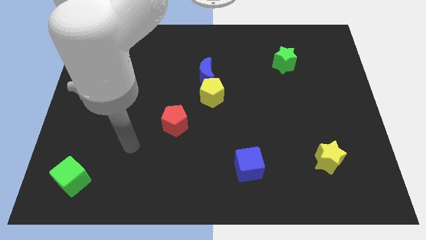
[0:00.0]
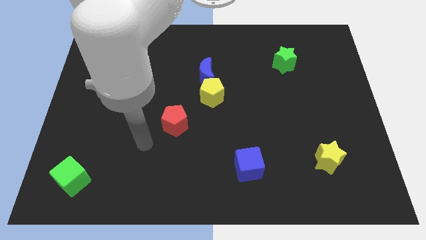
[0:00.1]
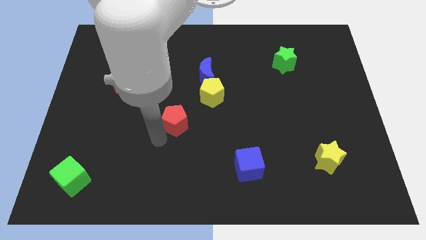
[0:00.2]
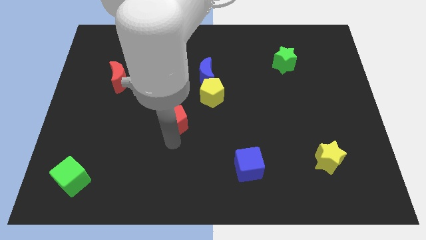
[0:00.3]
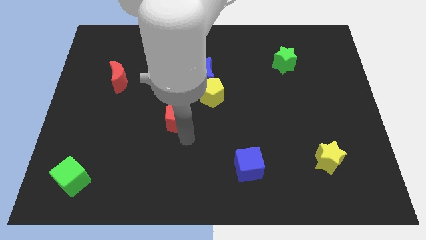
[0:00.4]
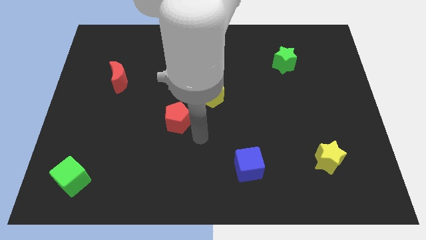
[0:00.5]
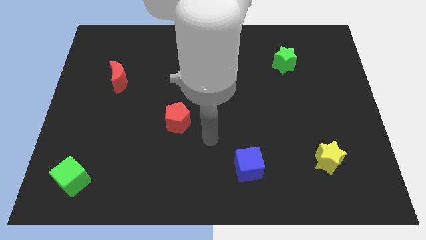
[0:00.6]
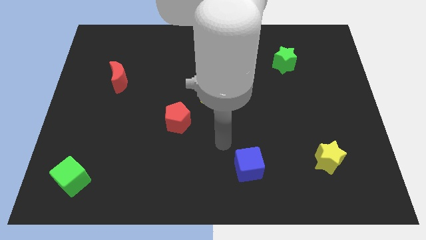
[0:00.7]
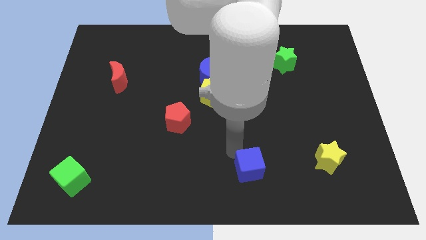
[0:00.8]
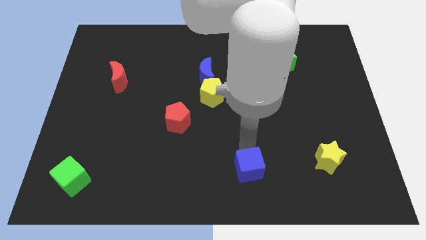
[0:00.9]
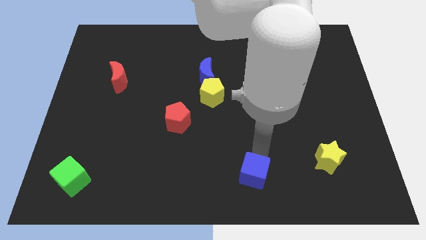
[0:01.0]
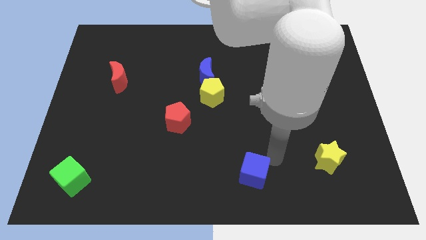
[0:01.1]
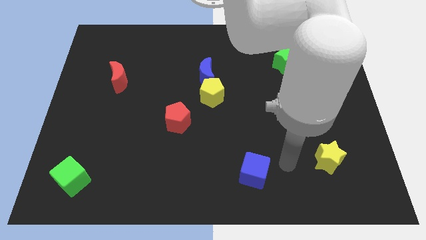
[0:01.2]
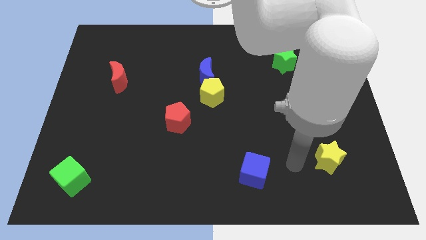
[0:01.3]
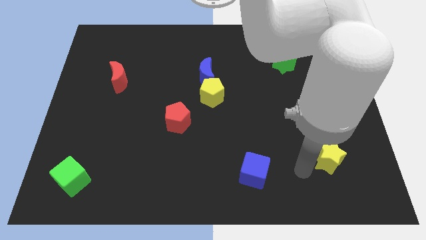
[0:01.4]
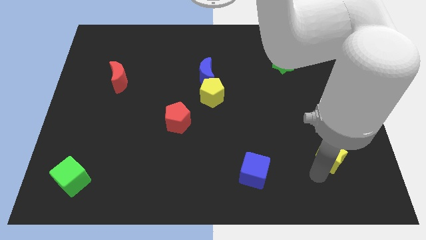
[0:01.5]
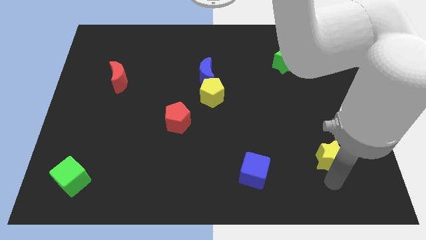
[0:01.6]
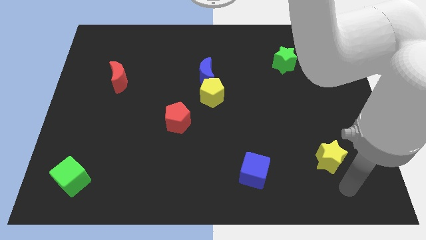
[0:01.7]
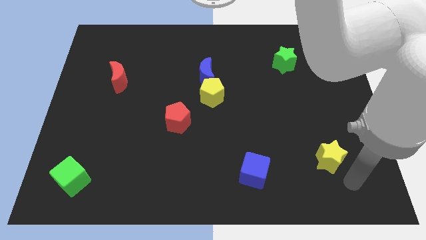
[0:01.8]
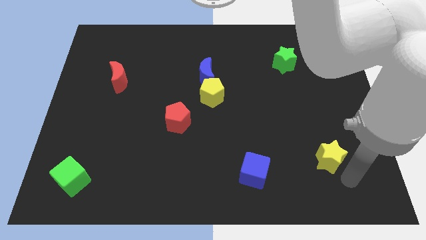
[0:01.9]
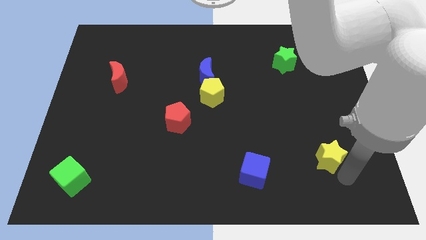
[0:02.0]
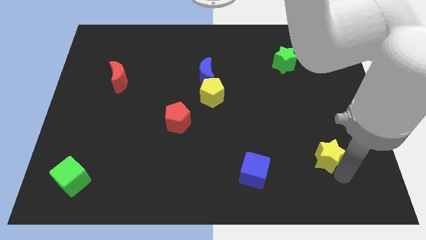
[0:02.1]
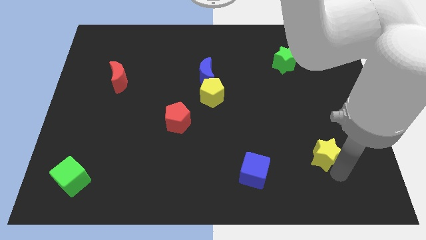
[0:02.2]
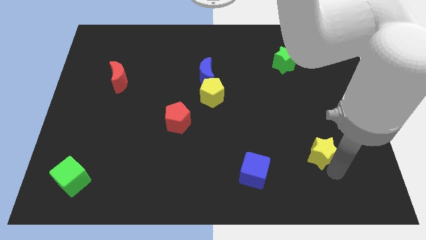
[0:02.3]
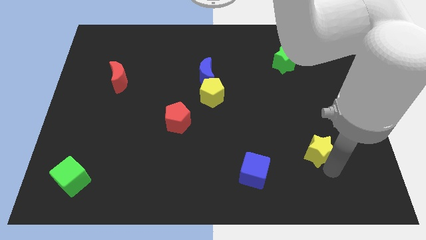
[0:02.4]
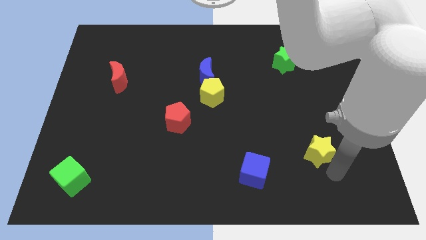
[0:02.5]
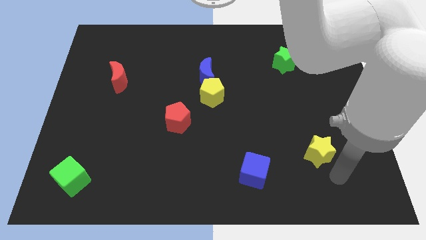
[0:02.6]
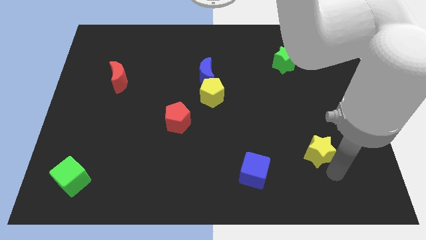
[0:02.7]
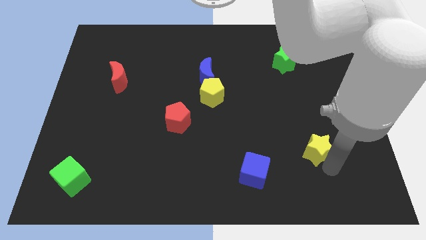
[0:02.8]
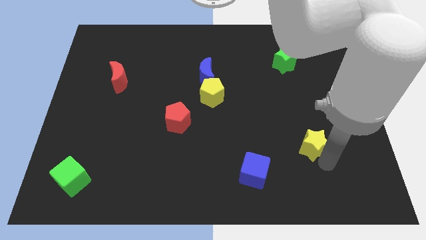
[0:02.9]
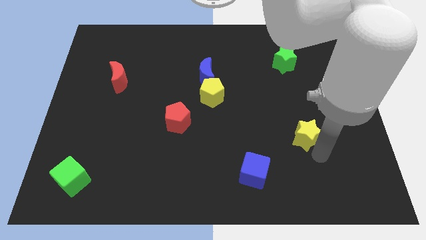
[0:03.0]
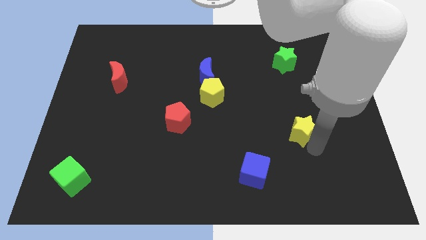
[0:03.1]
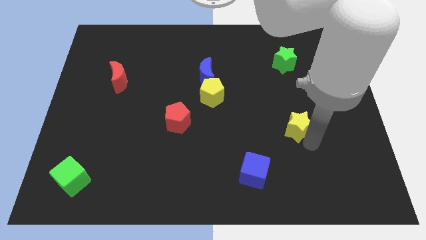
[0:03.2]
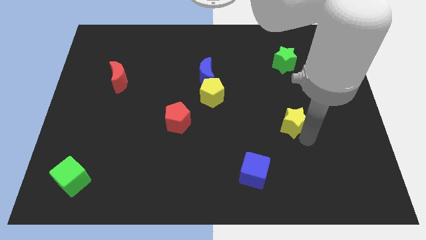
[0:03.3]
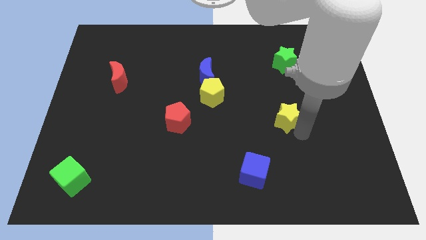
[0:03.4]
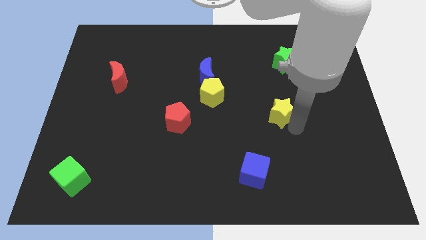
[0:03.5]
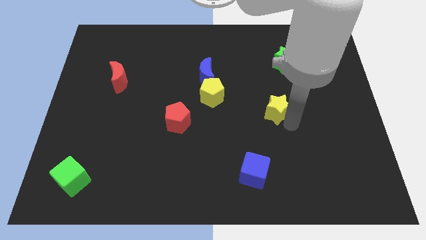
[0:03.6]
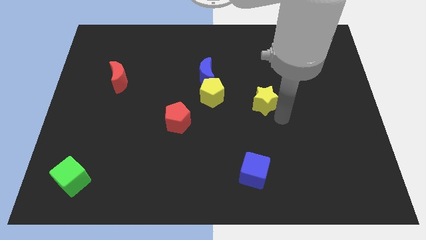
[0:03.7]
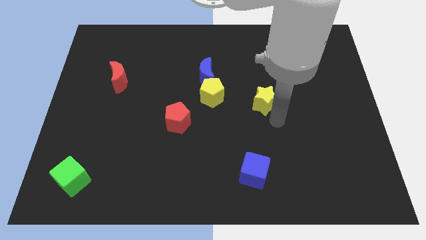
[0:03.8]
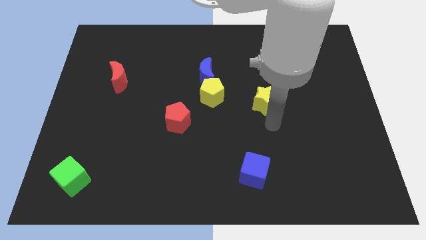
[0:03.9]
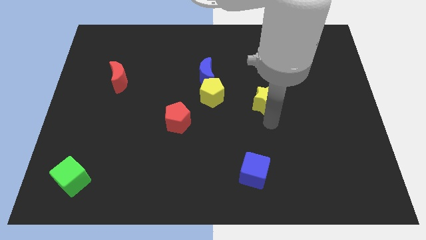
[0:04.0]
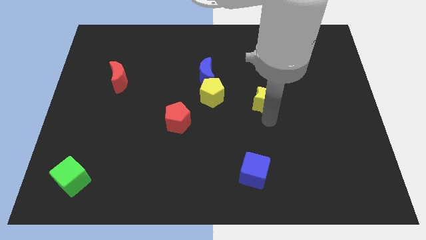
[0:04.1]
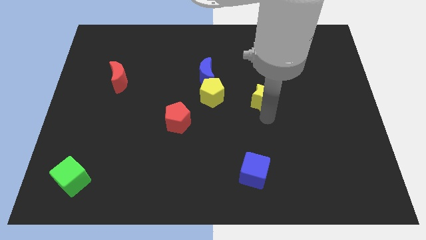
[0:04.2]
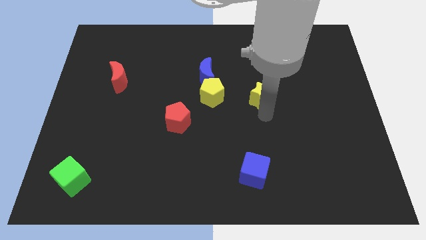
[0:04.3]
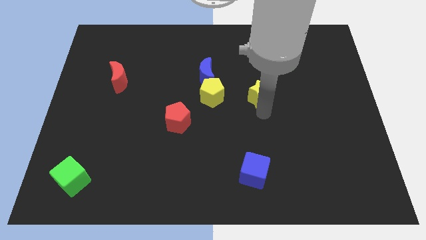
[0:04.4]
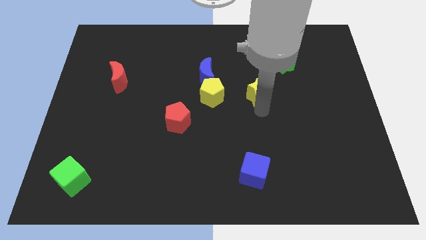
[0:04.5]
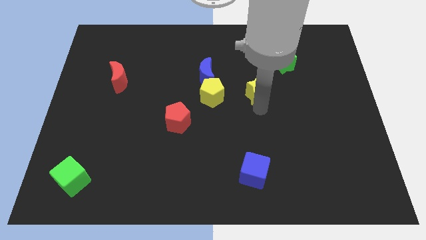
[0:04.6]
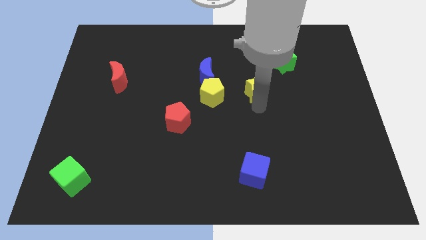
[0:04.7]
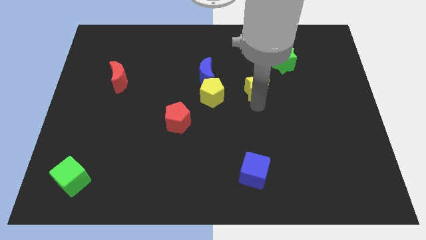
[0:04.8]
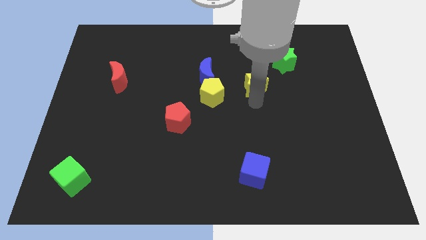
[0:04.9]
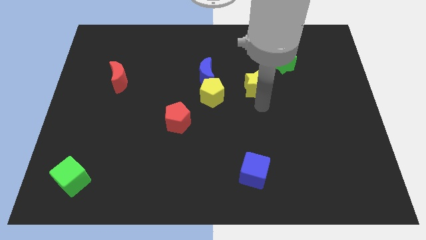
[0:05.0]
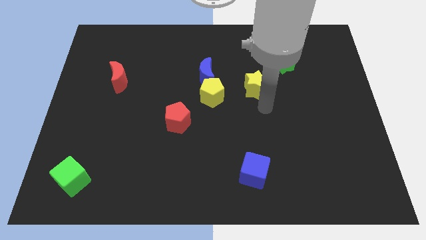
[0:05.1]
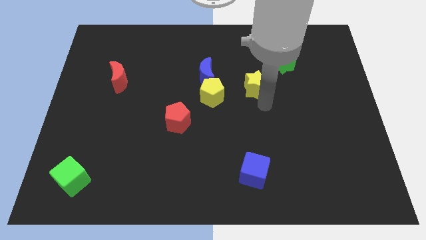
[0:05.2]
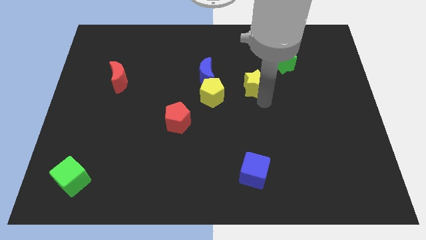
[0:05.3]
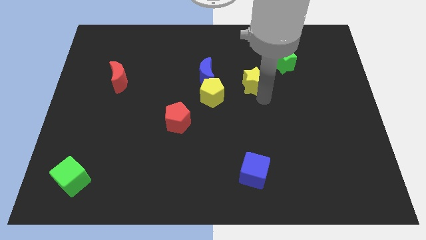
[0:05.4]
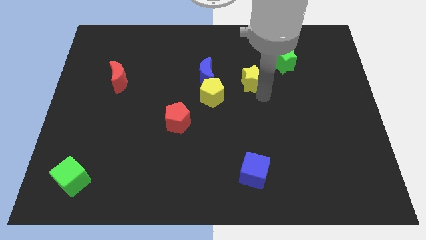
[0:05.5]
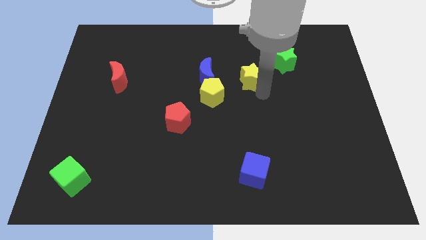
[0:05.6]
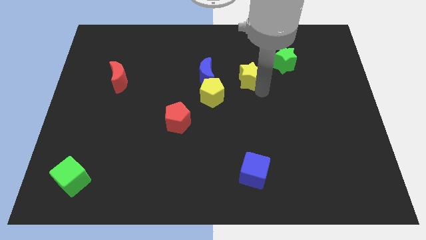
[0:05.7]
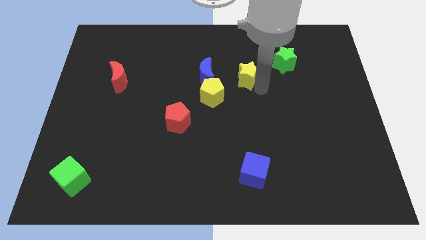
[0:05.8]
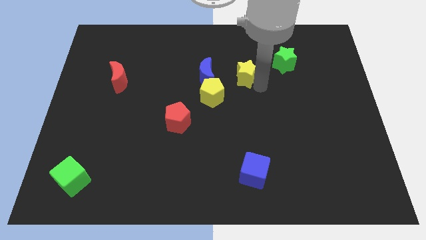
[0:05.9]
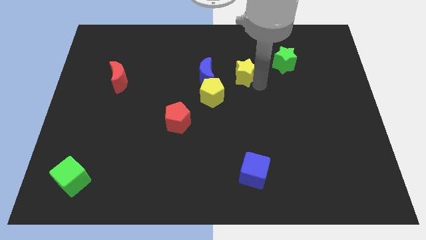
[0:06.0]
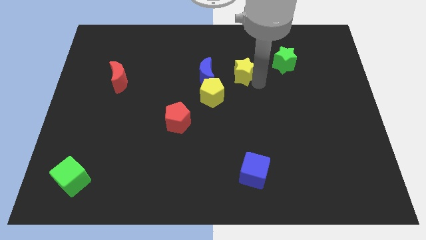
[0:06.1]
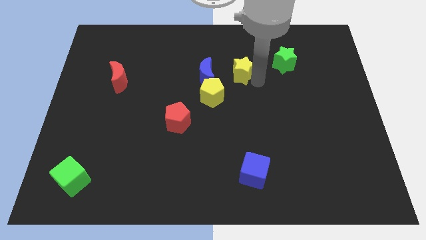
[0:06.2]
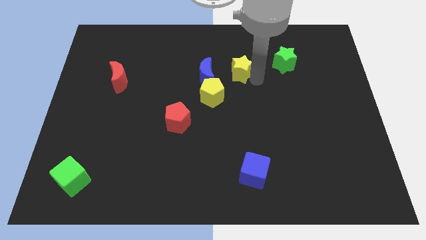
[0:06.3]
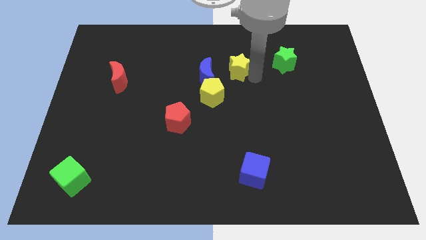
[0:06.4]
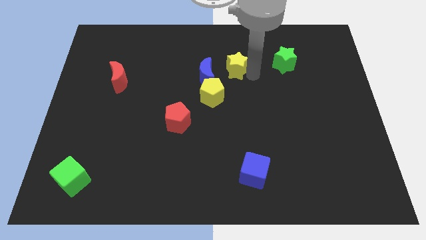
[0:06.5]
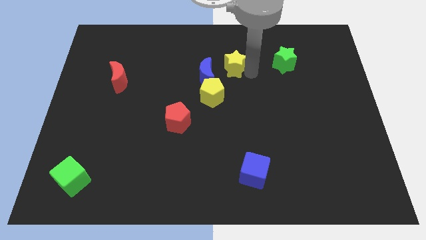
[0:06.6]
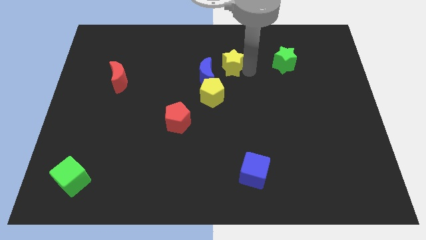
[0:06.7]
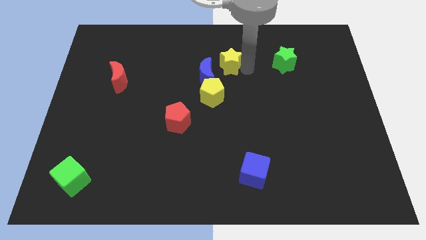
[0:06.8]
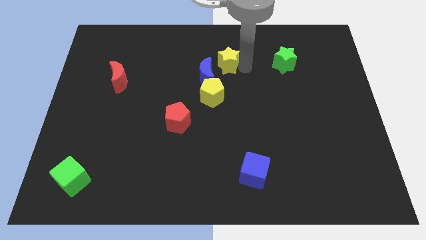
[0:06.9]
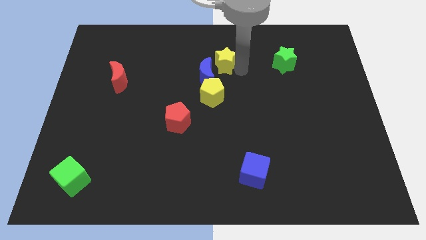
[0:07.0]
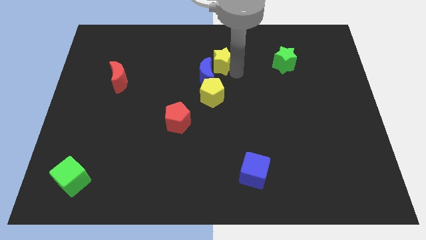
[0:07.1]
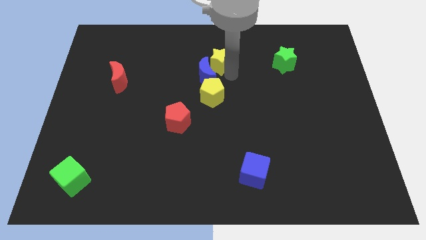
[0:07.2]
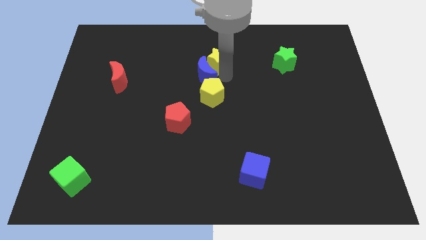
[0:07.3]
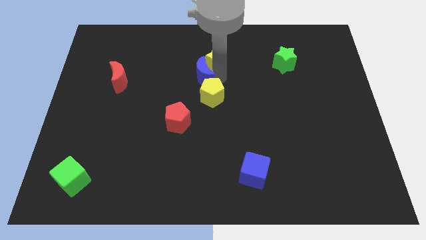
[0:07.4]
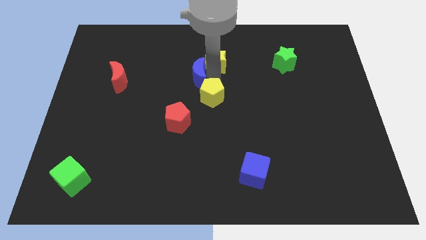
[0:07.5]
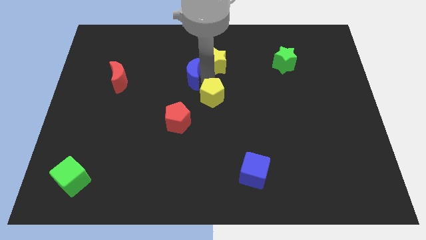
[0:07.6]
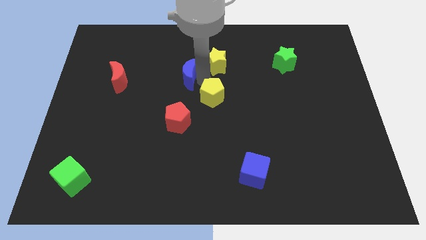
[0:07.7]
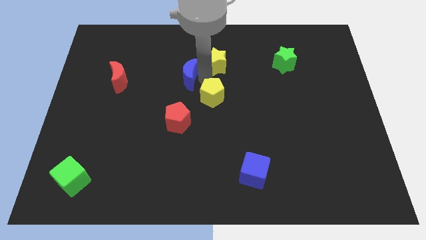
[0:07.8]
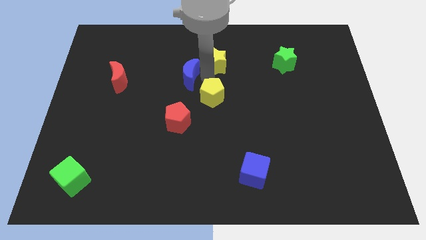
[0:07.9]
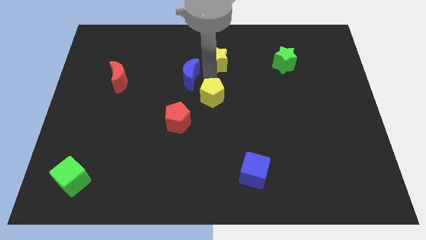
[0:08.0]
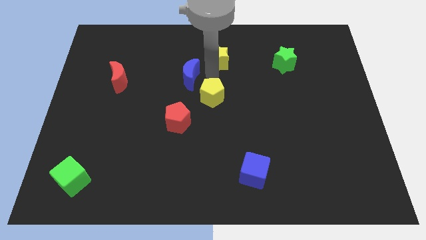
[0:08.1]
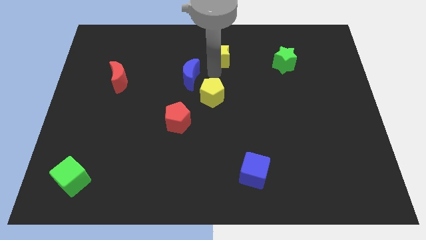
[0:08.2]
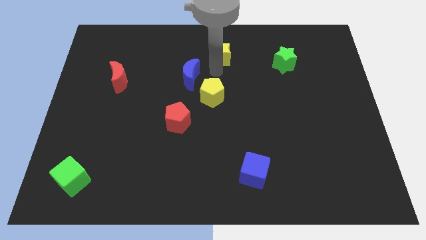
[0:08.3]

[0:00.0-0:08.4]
move the yellow star to the top
